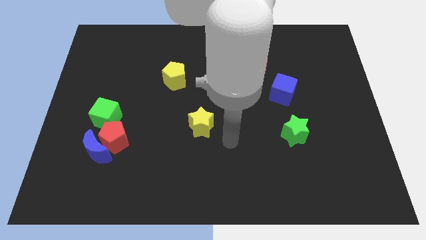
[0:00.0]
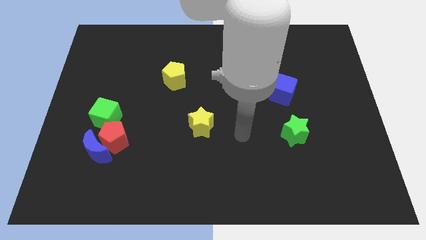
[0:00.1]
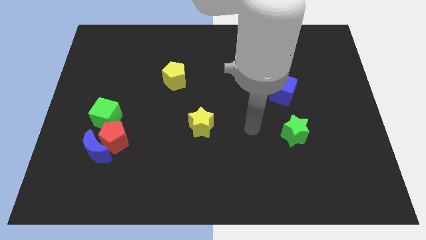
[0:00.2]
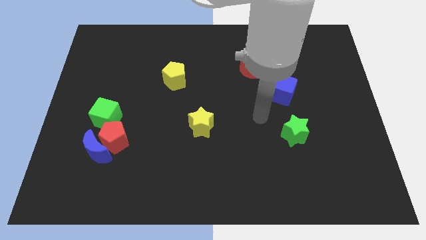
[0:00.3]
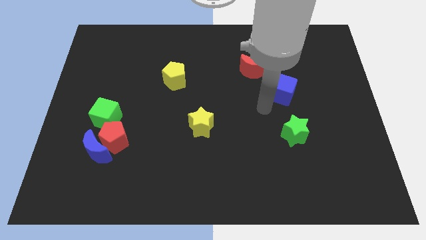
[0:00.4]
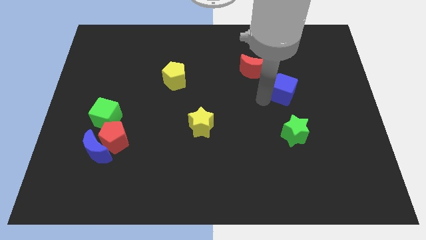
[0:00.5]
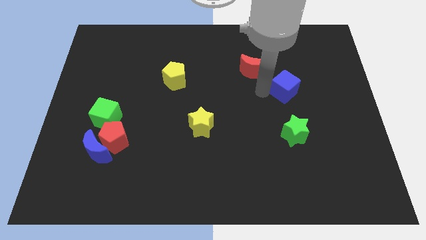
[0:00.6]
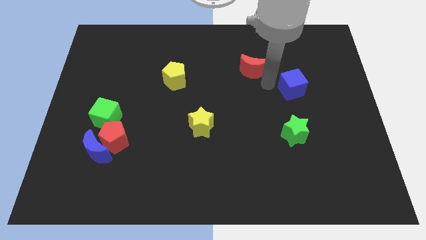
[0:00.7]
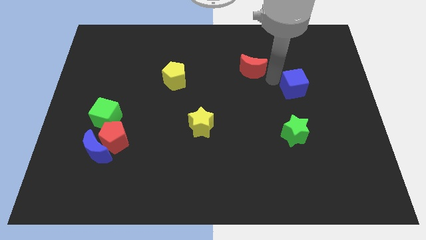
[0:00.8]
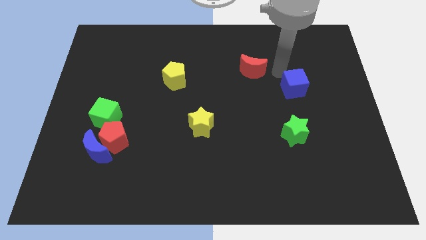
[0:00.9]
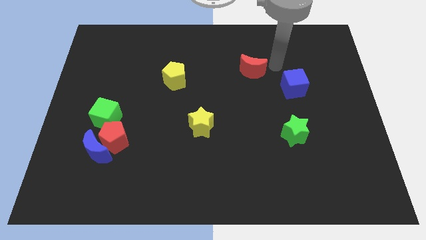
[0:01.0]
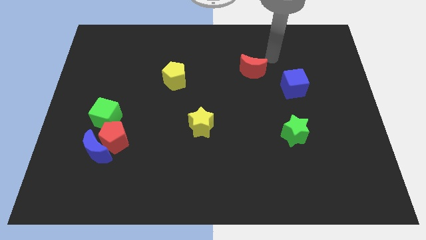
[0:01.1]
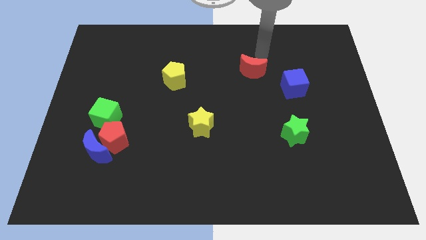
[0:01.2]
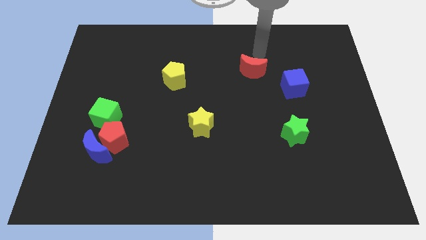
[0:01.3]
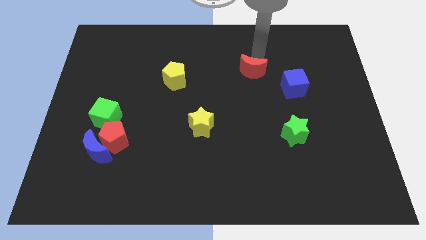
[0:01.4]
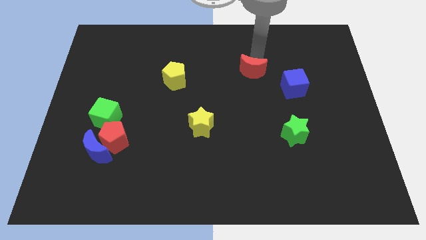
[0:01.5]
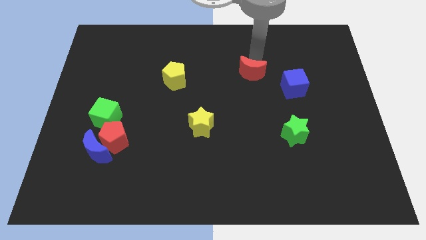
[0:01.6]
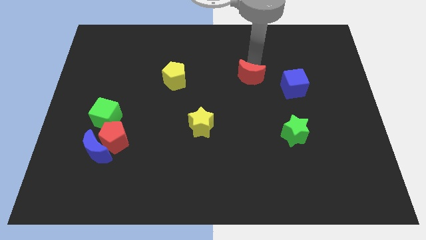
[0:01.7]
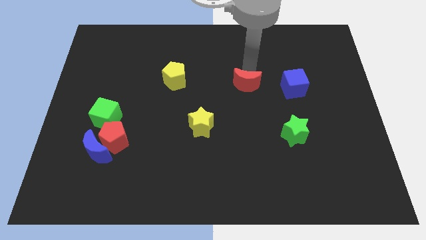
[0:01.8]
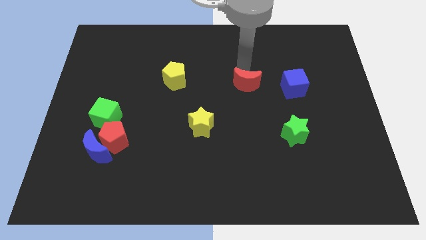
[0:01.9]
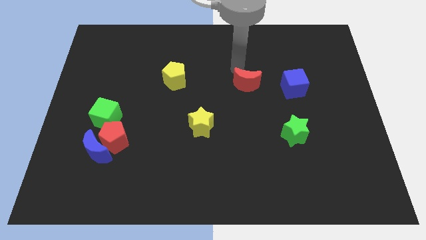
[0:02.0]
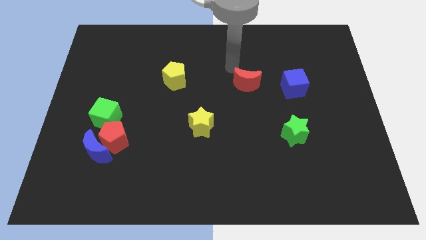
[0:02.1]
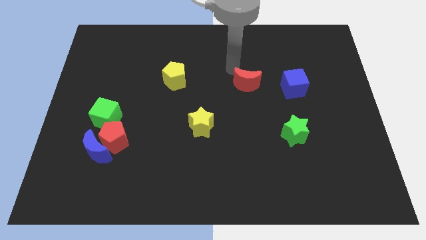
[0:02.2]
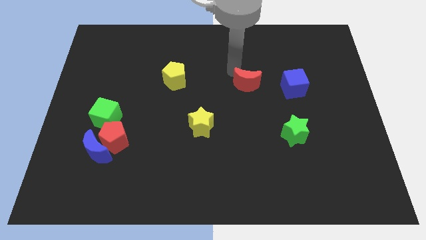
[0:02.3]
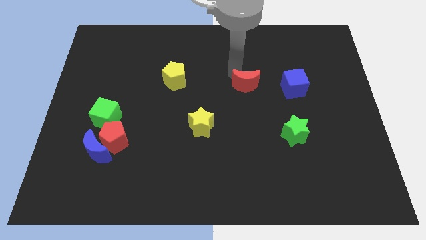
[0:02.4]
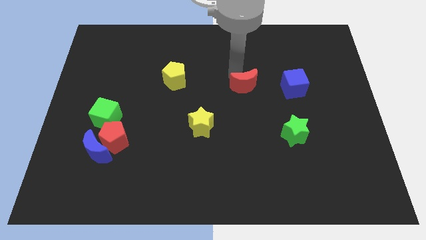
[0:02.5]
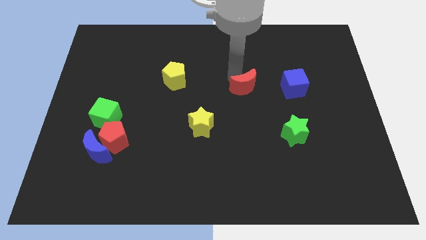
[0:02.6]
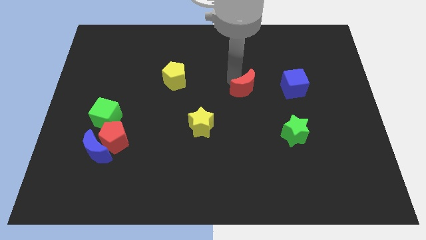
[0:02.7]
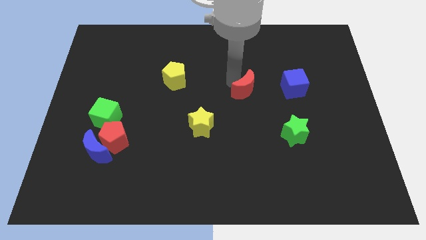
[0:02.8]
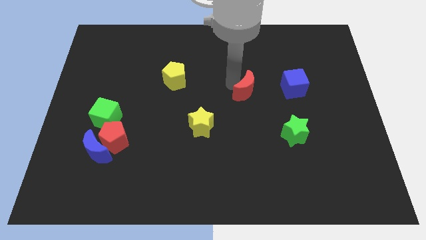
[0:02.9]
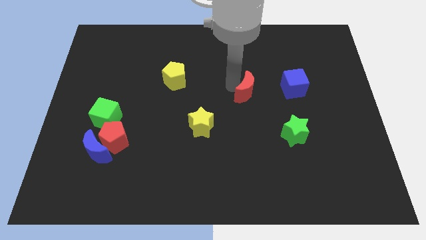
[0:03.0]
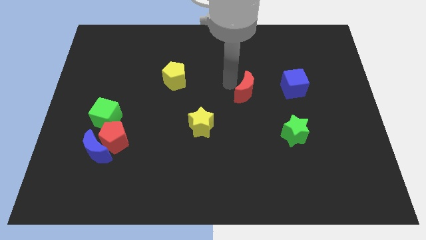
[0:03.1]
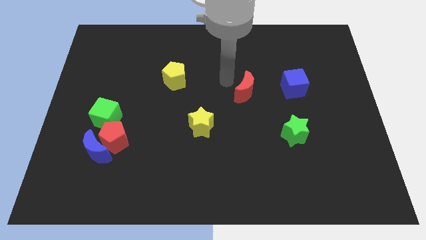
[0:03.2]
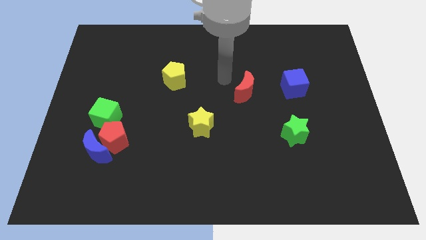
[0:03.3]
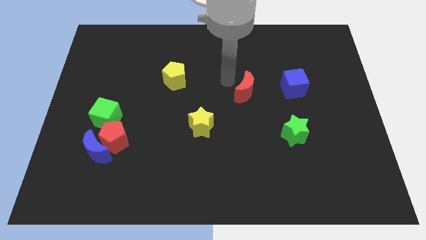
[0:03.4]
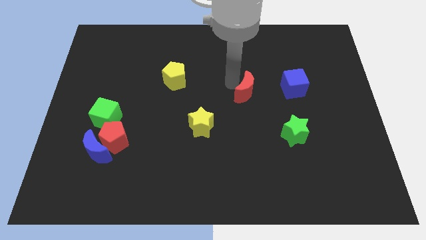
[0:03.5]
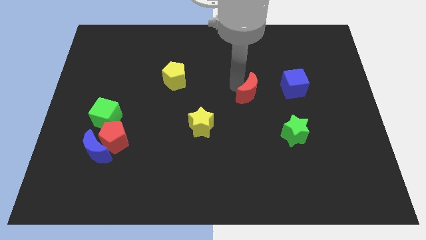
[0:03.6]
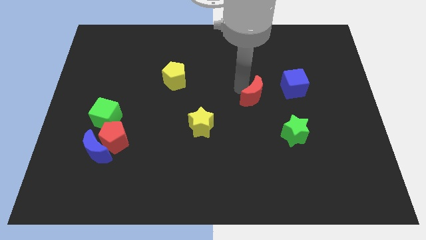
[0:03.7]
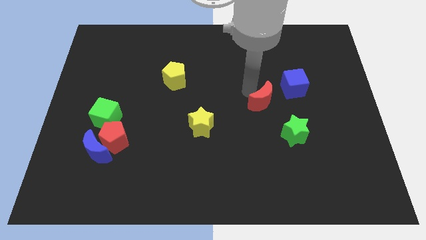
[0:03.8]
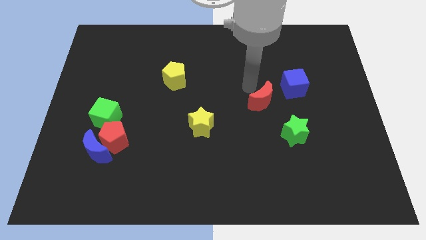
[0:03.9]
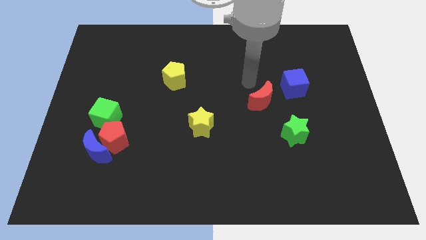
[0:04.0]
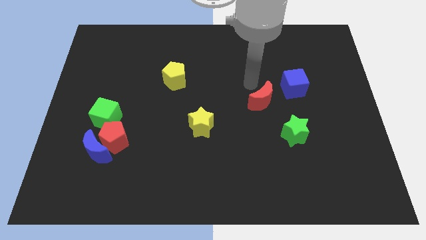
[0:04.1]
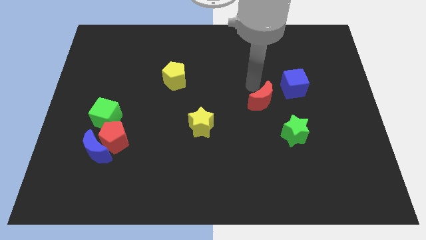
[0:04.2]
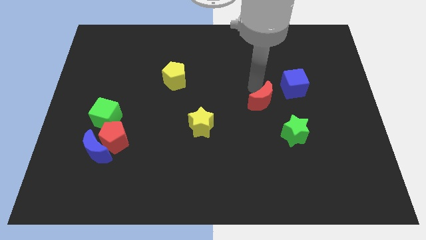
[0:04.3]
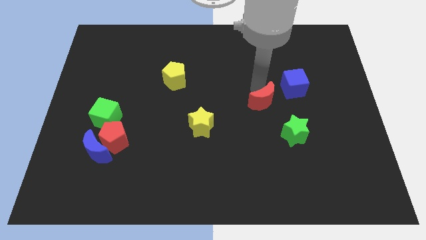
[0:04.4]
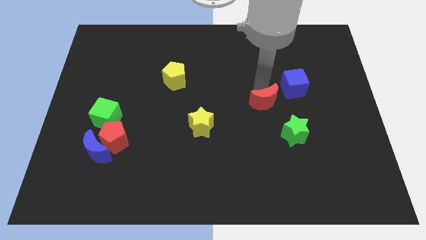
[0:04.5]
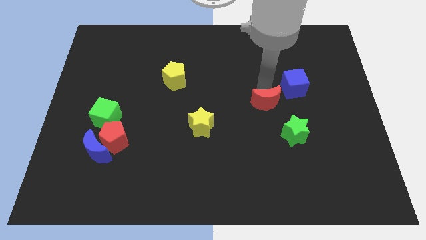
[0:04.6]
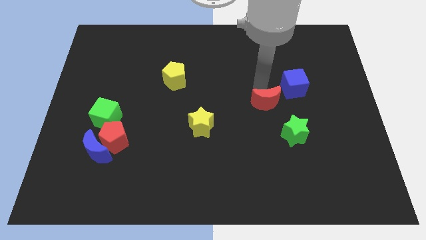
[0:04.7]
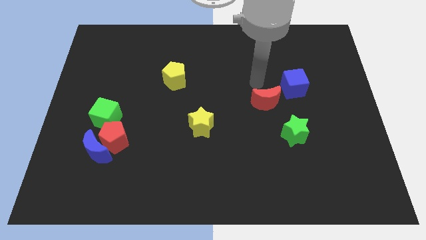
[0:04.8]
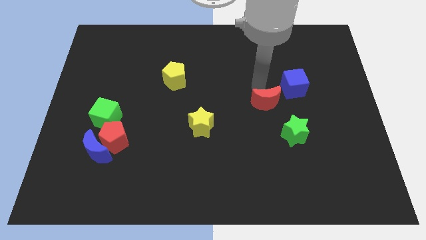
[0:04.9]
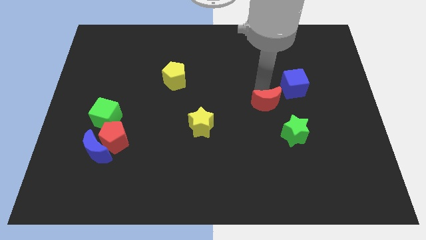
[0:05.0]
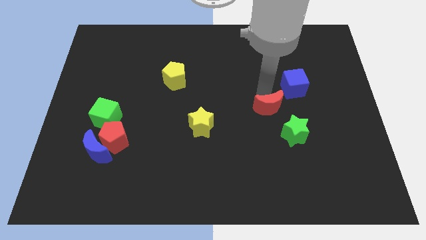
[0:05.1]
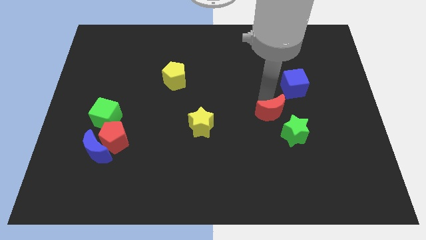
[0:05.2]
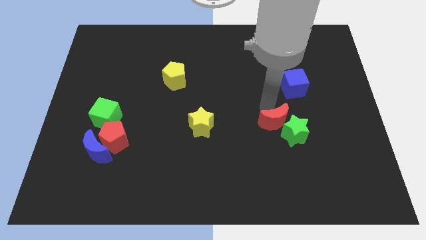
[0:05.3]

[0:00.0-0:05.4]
slide the red moon close to the green star

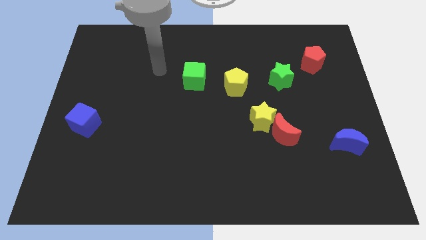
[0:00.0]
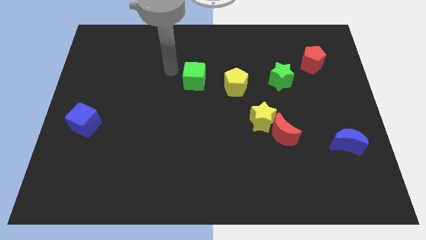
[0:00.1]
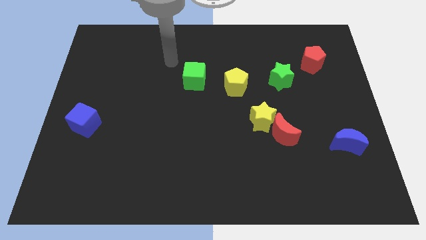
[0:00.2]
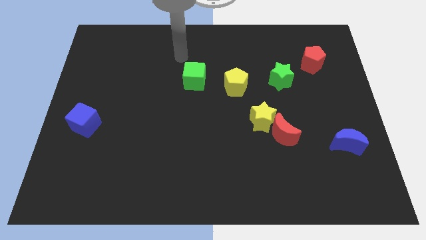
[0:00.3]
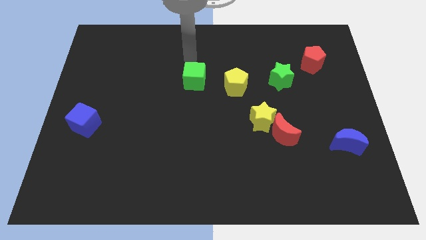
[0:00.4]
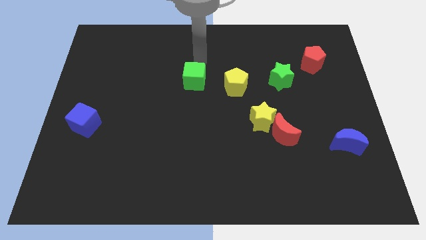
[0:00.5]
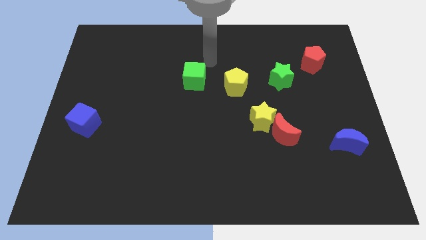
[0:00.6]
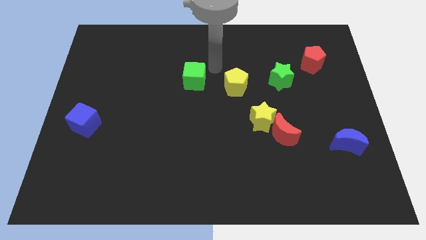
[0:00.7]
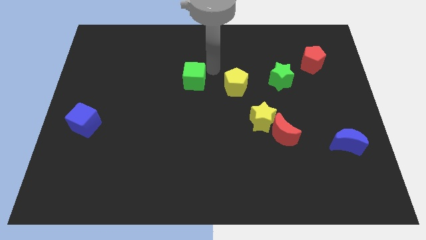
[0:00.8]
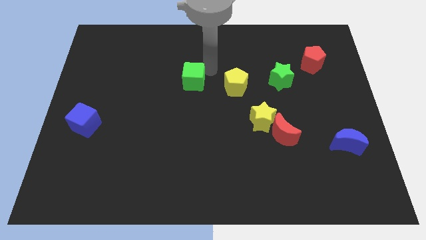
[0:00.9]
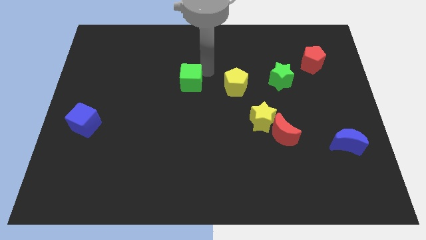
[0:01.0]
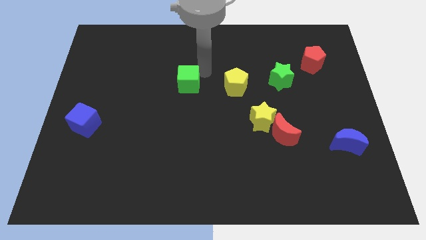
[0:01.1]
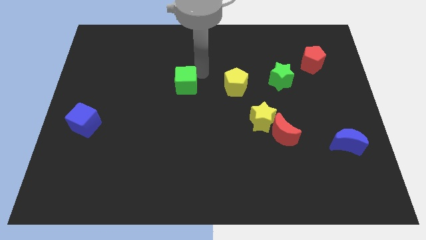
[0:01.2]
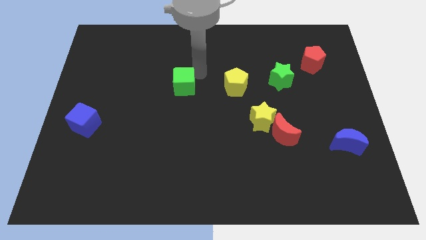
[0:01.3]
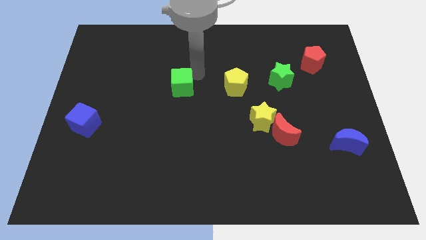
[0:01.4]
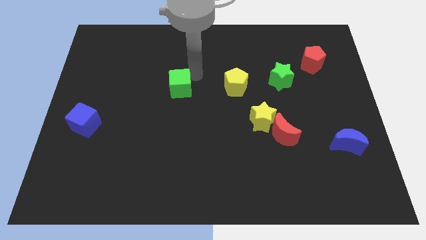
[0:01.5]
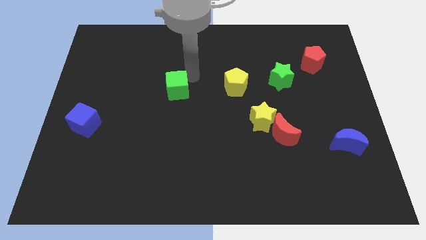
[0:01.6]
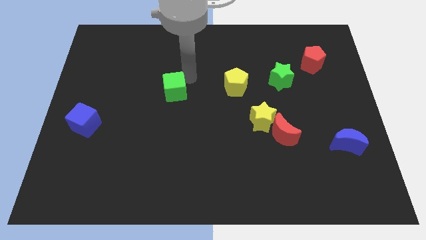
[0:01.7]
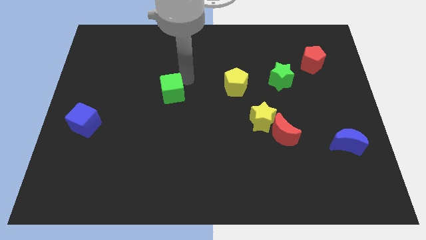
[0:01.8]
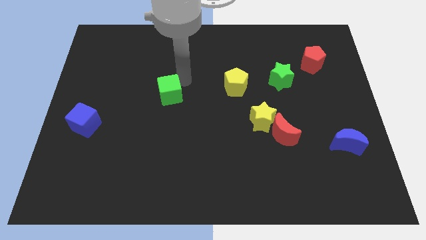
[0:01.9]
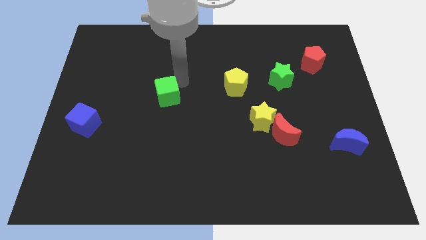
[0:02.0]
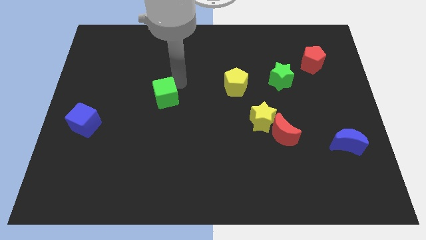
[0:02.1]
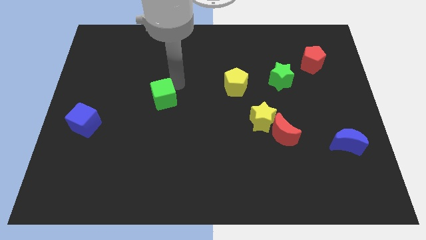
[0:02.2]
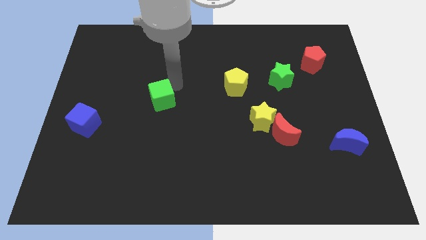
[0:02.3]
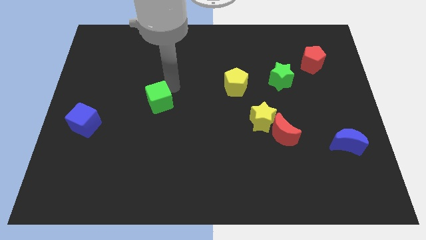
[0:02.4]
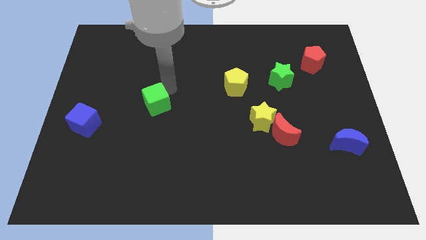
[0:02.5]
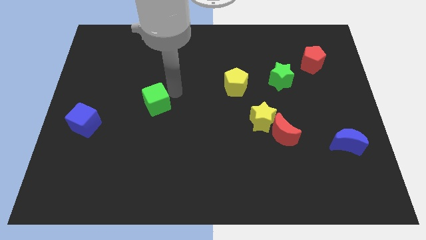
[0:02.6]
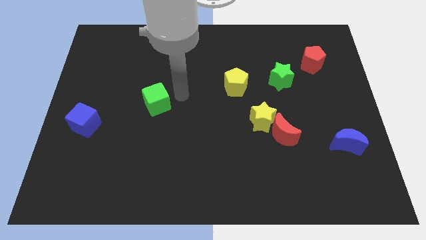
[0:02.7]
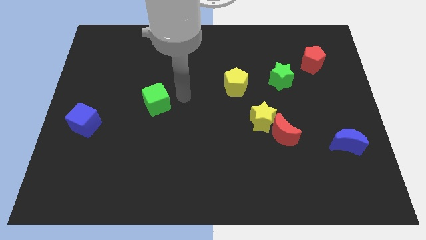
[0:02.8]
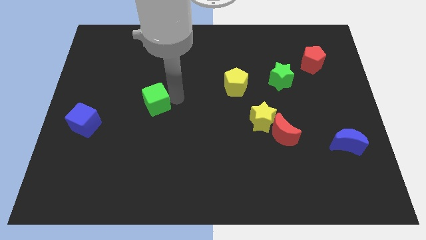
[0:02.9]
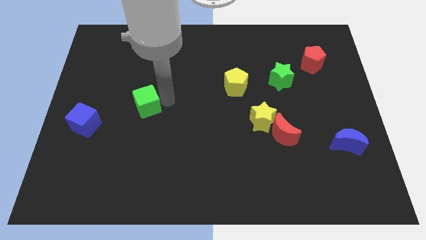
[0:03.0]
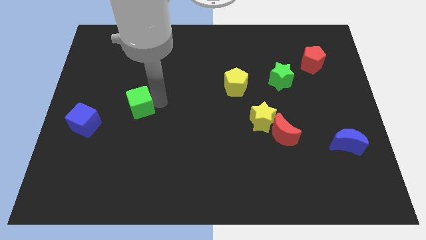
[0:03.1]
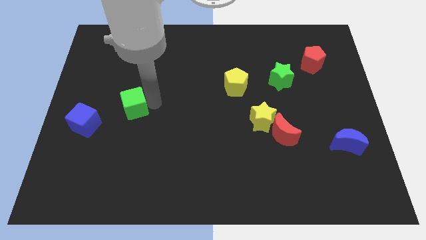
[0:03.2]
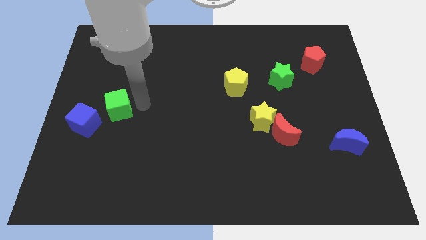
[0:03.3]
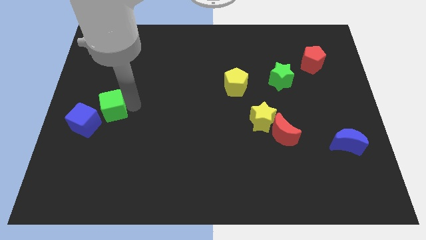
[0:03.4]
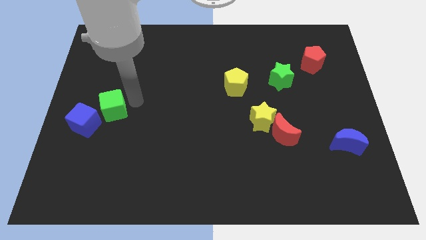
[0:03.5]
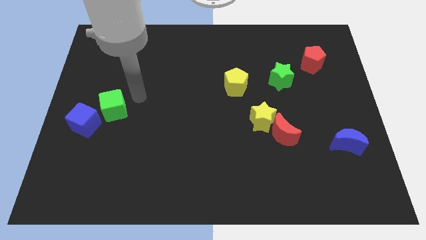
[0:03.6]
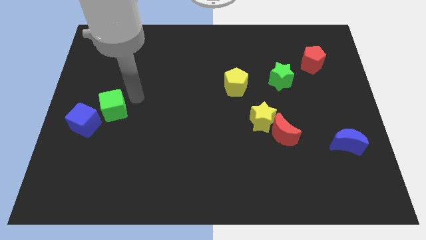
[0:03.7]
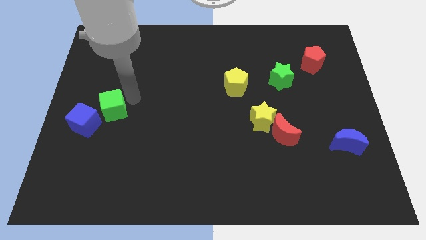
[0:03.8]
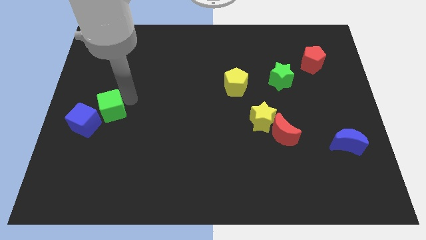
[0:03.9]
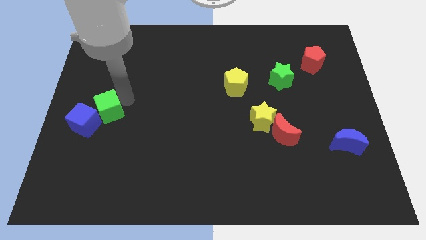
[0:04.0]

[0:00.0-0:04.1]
slide the green cube to the blue cube
